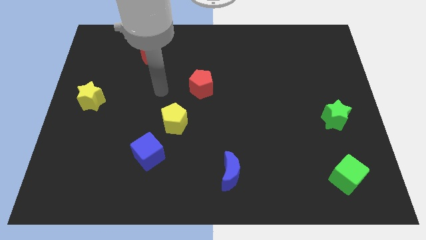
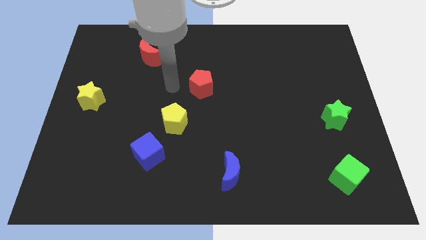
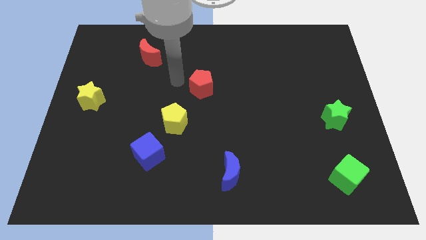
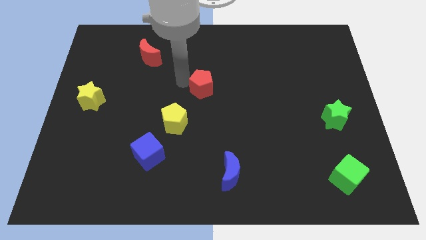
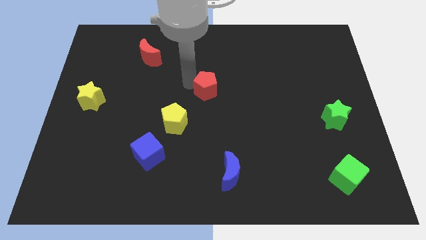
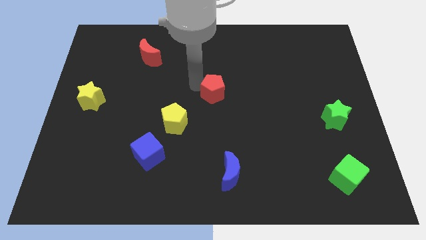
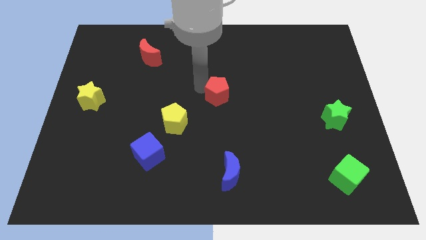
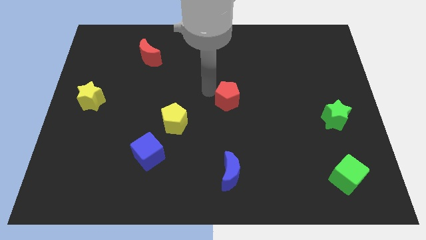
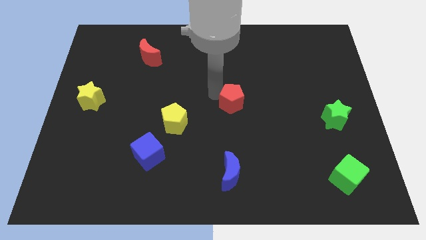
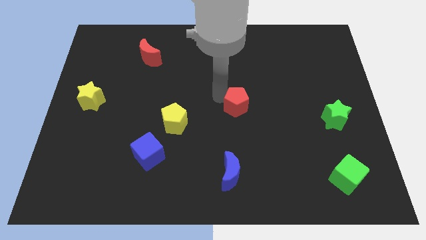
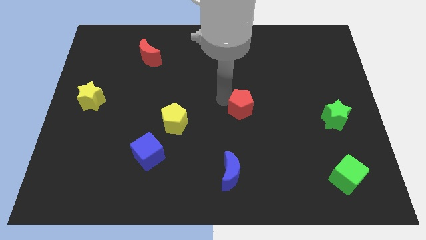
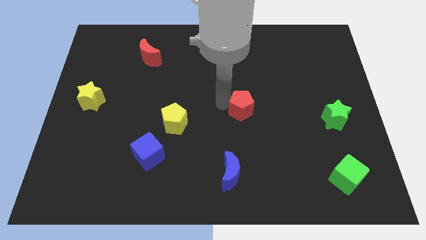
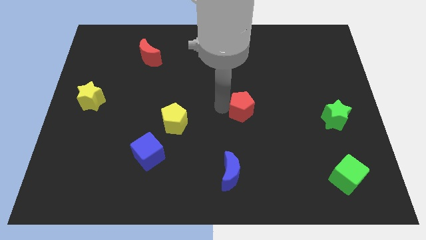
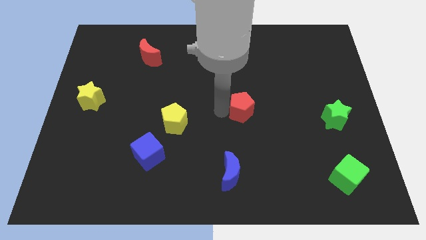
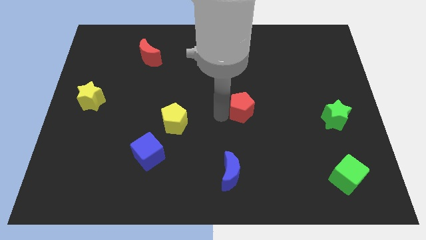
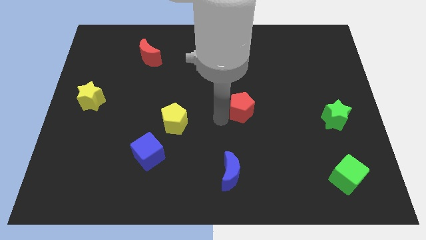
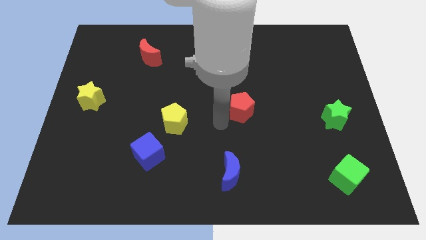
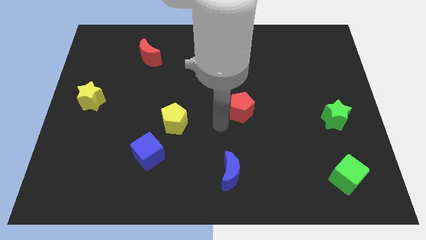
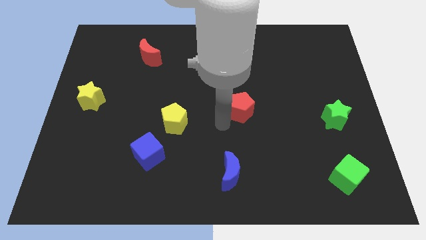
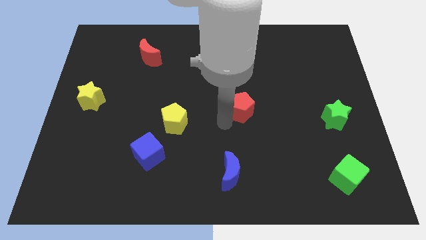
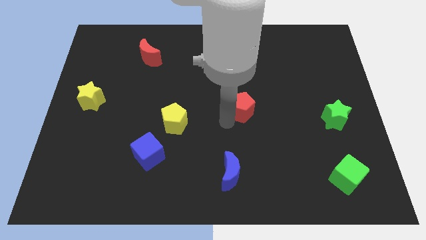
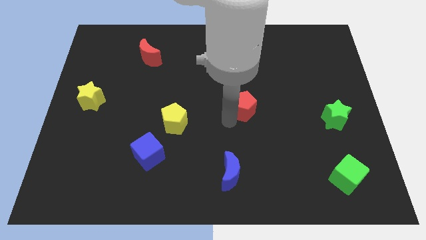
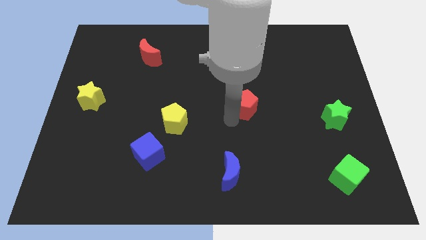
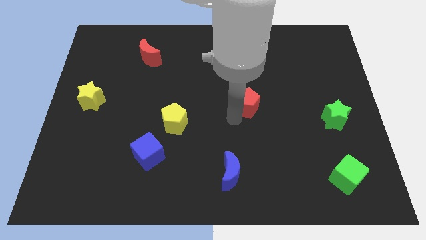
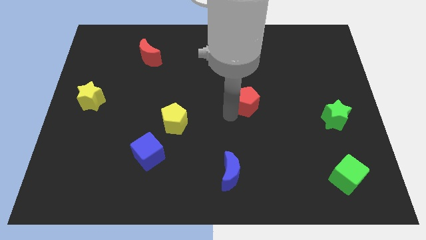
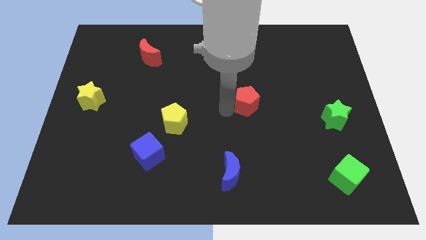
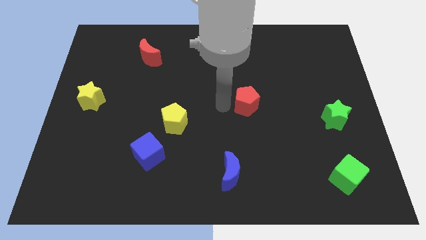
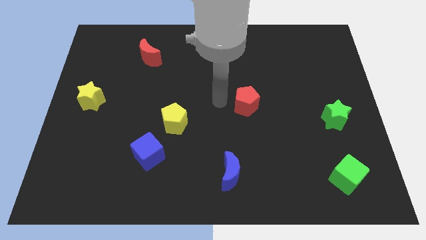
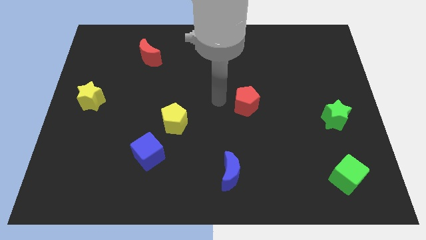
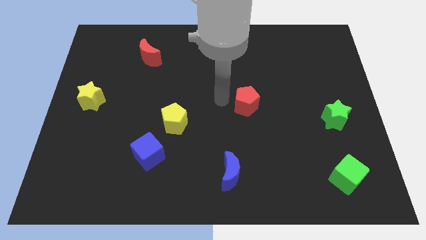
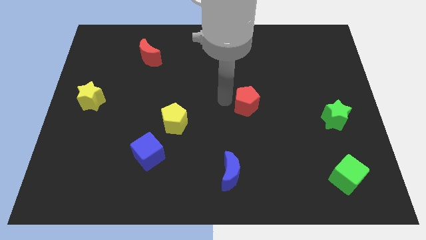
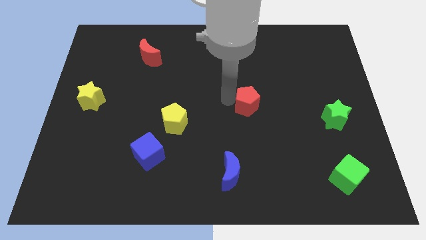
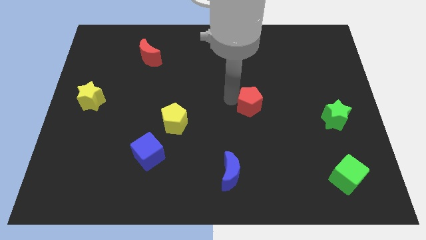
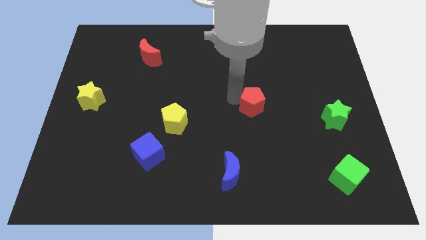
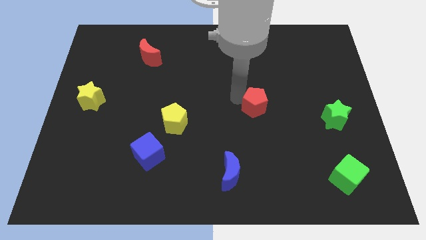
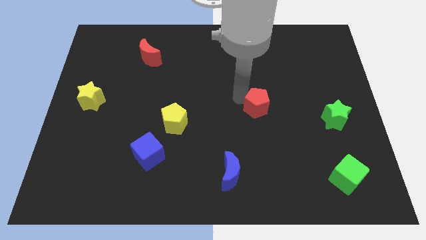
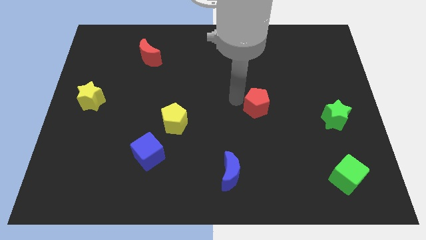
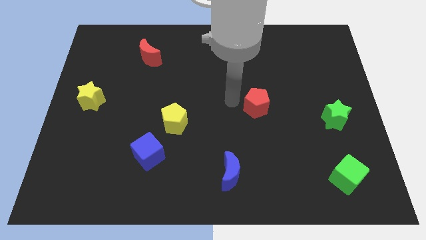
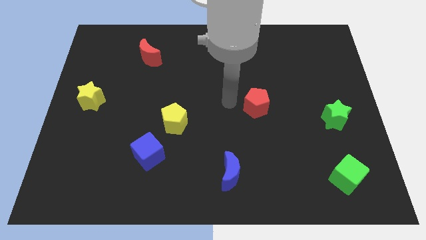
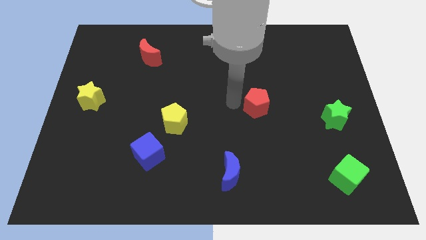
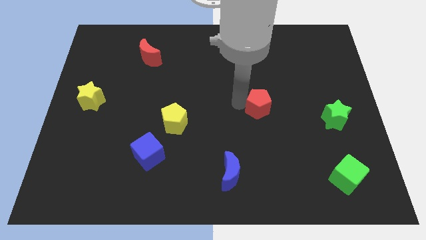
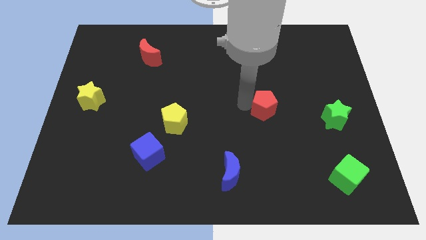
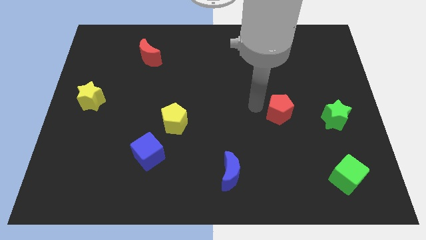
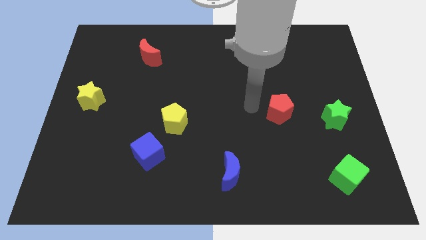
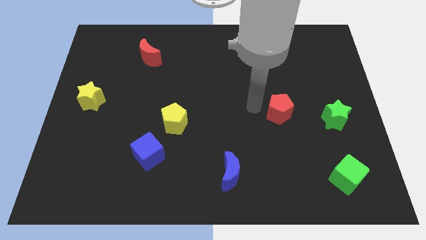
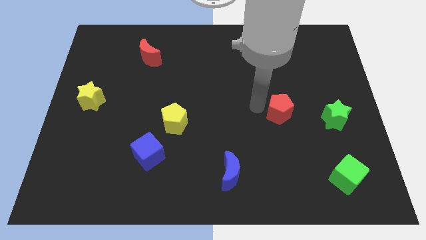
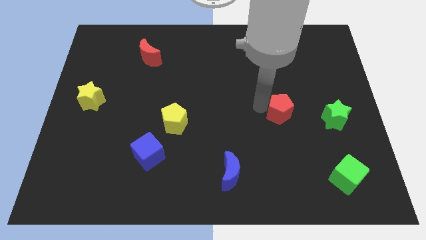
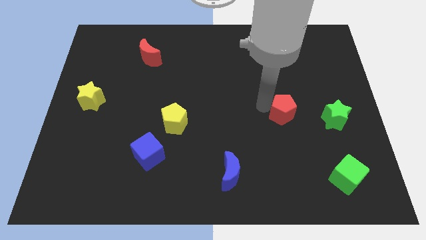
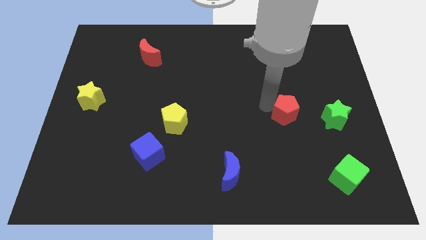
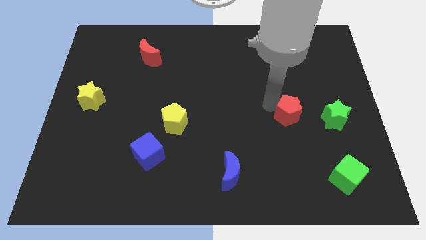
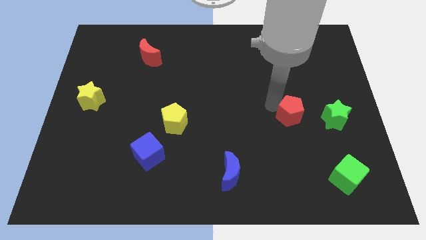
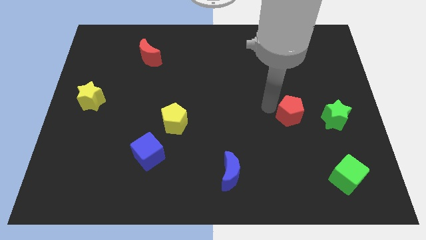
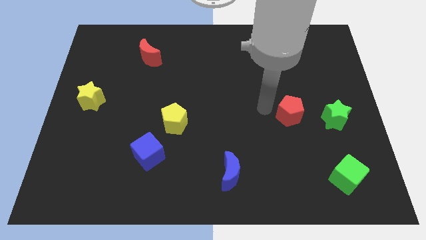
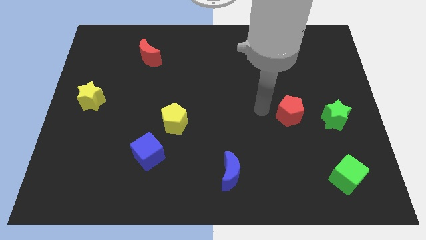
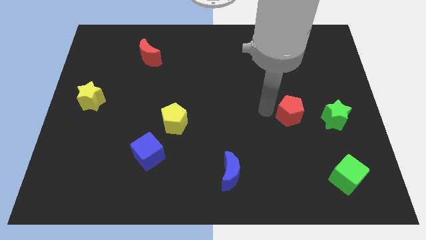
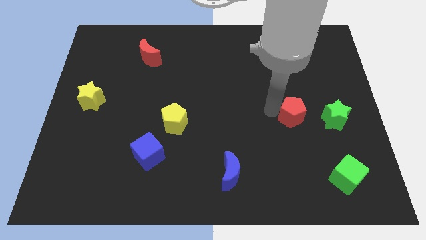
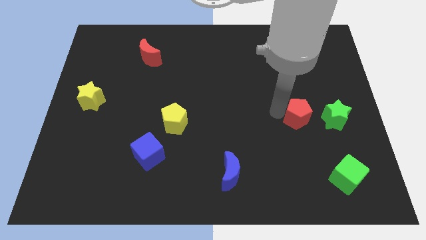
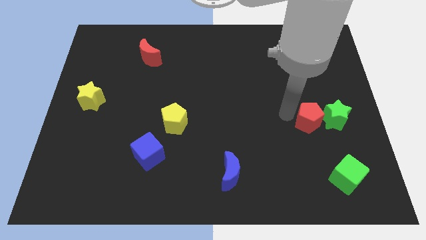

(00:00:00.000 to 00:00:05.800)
move the red pentagon next to the green star

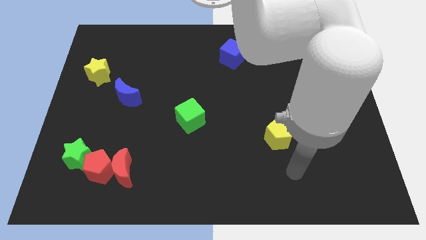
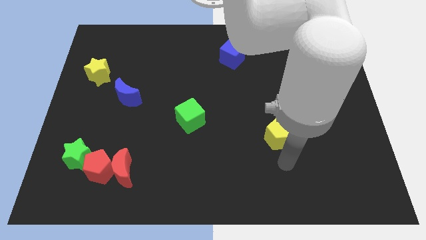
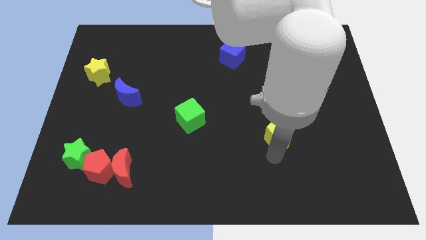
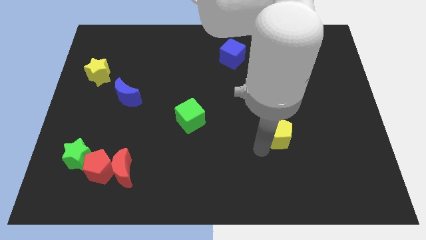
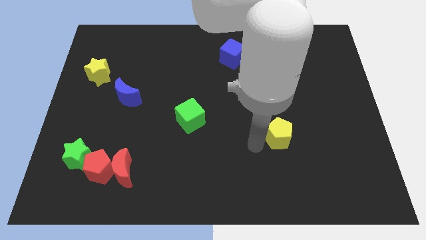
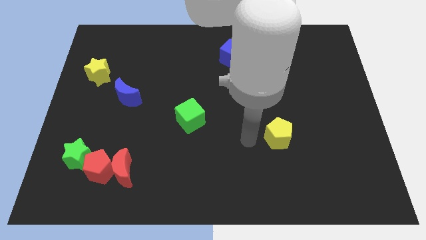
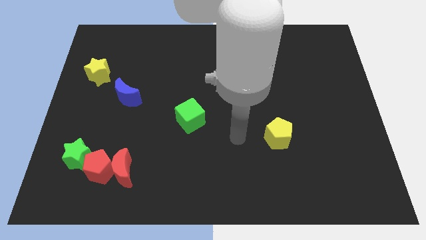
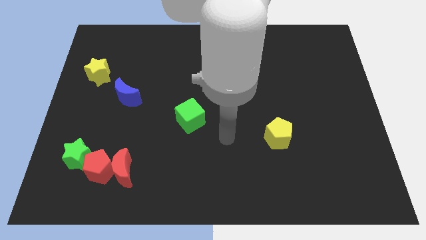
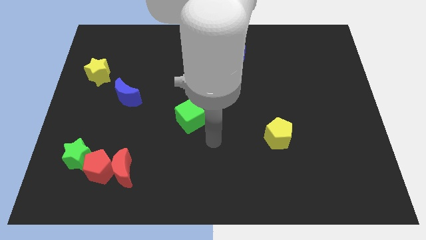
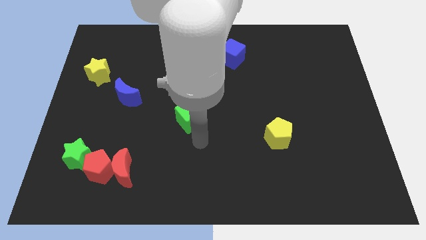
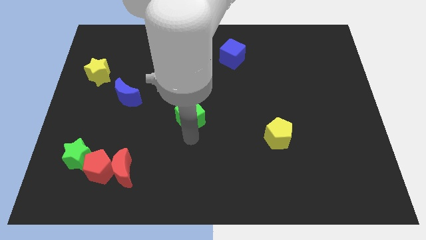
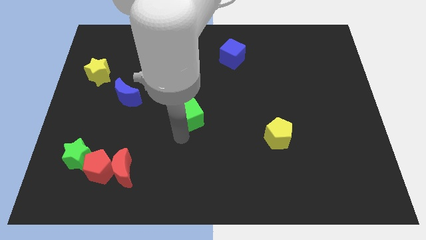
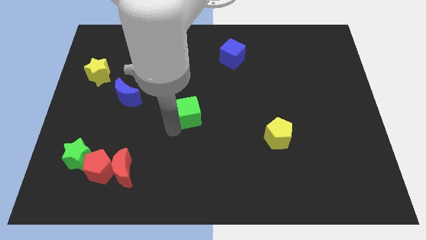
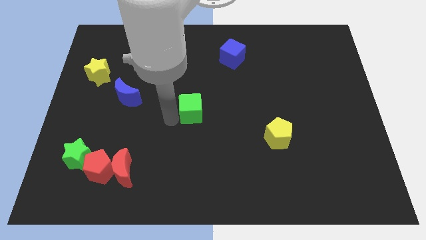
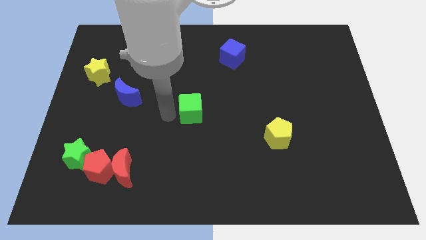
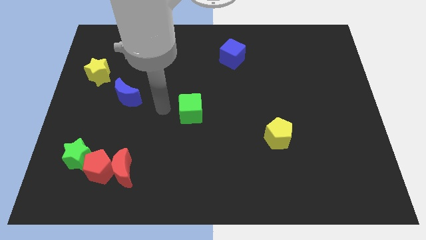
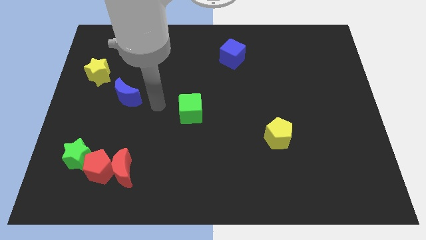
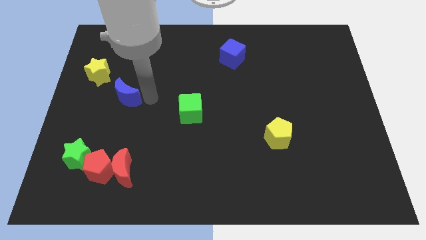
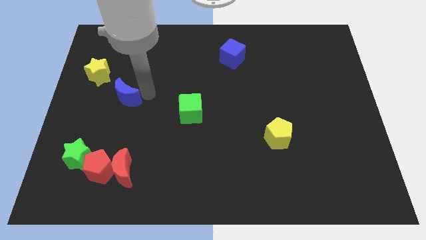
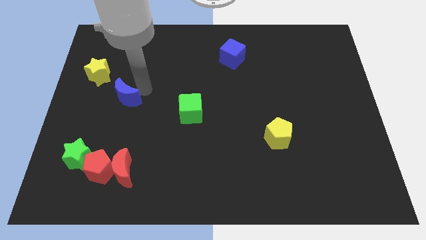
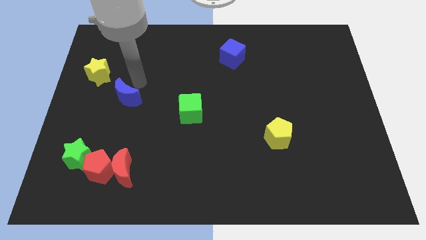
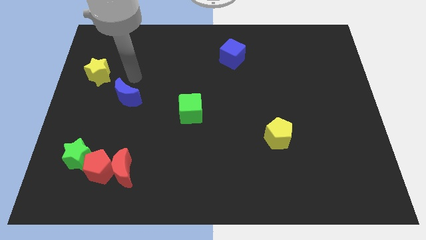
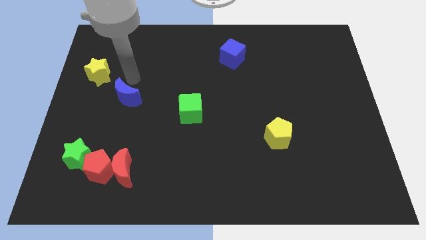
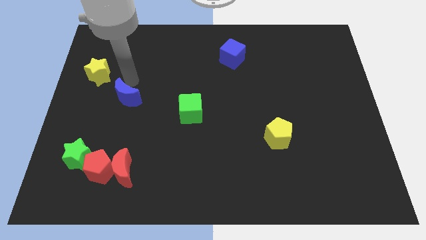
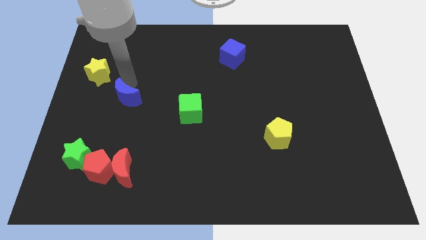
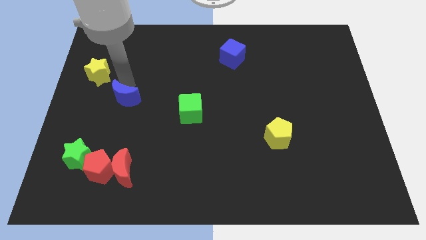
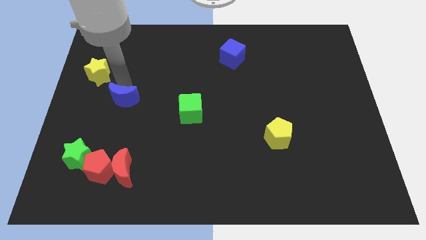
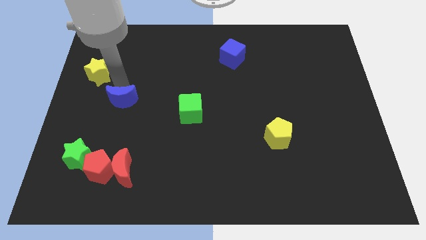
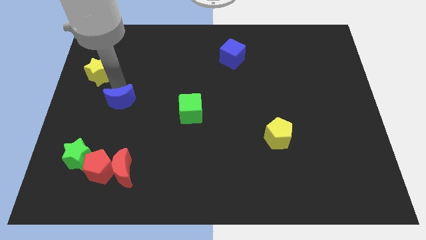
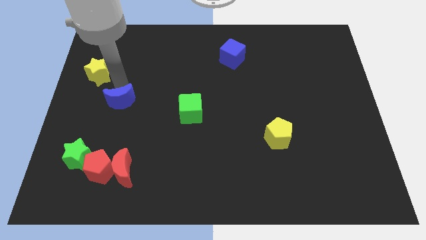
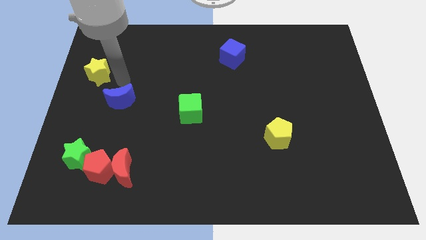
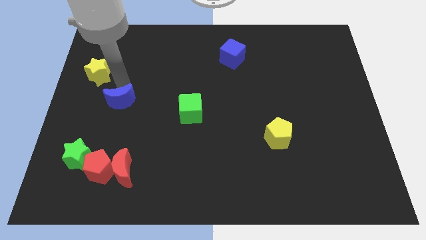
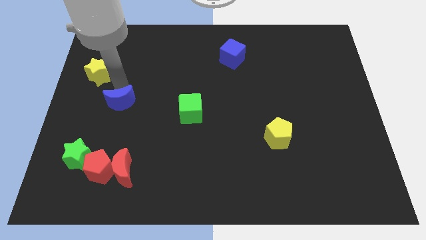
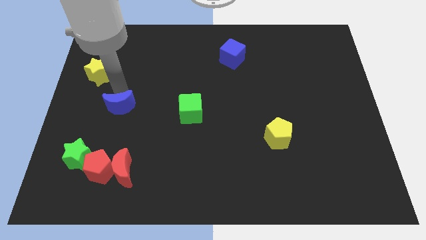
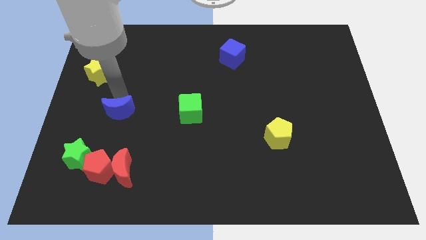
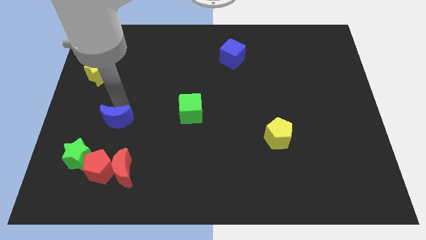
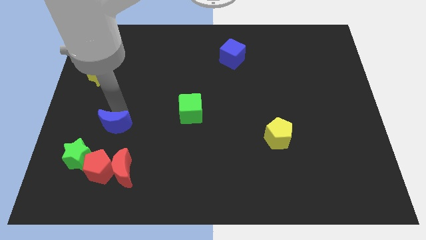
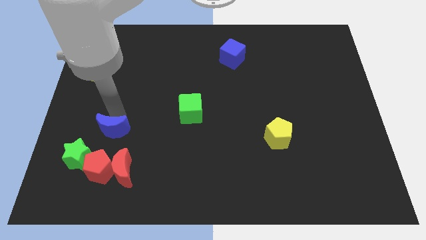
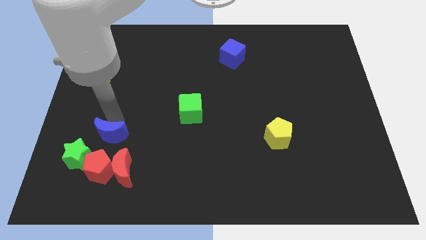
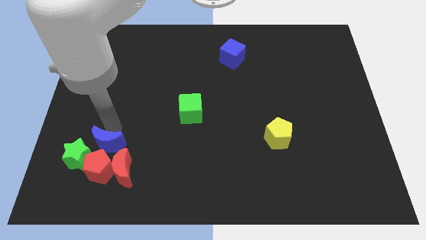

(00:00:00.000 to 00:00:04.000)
move the blue moon to the red pentagon
